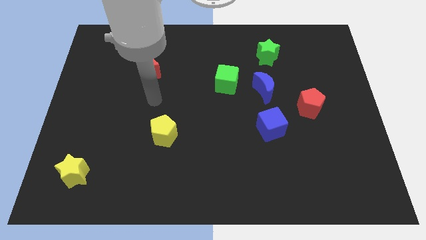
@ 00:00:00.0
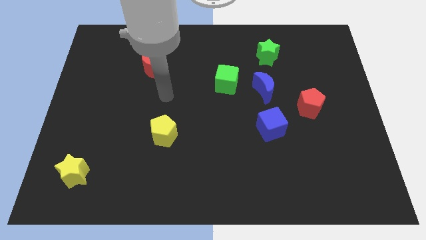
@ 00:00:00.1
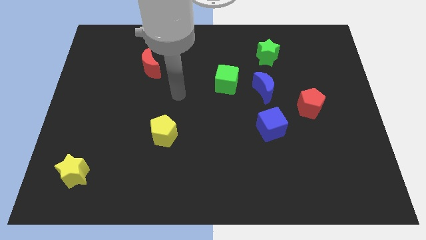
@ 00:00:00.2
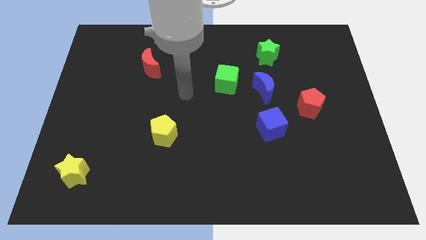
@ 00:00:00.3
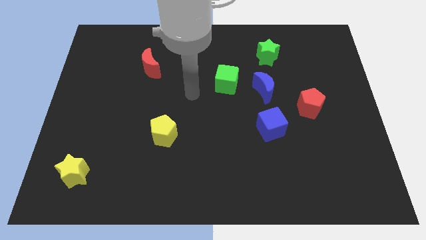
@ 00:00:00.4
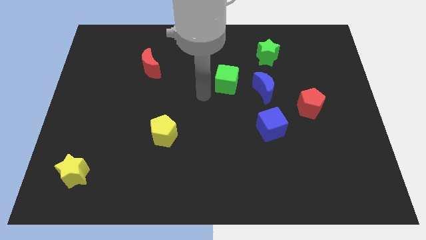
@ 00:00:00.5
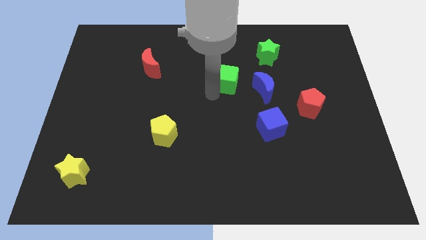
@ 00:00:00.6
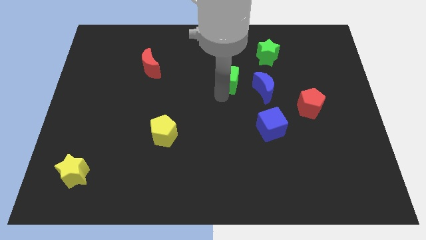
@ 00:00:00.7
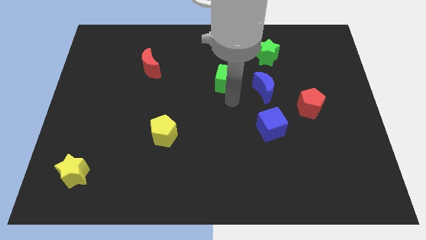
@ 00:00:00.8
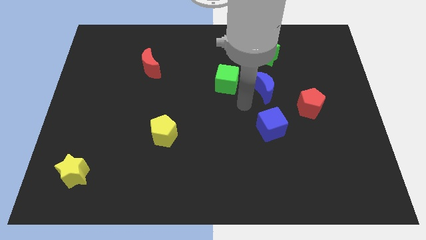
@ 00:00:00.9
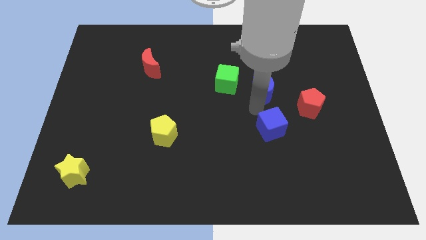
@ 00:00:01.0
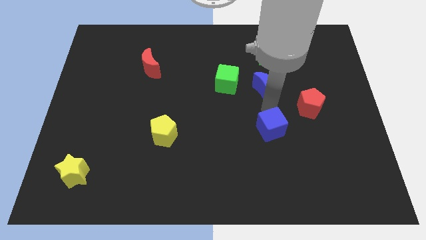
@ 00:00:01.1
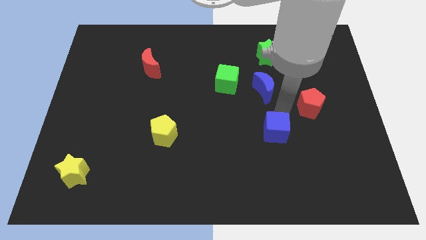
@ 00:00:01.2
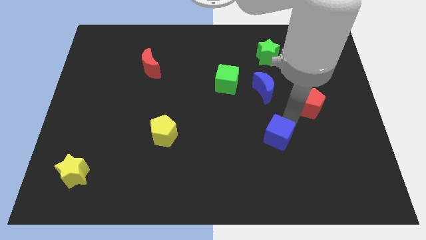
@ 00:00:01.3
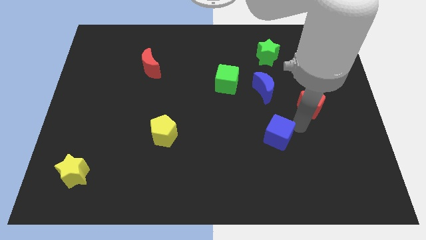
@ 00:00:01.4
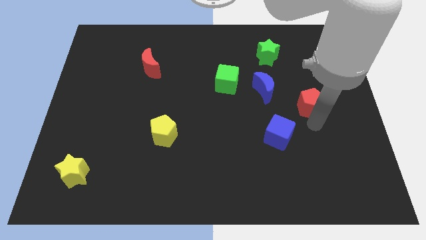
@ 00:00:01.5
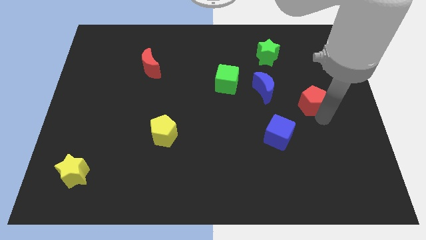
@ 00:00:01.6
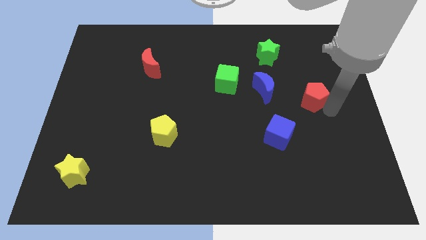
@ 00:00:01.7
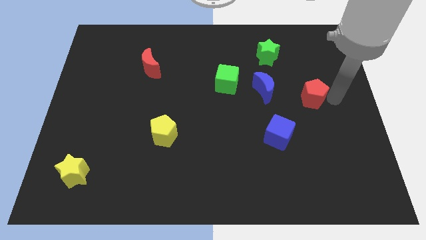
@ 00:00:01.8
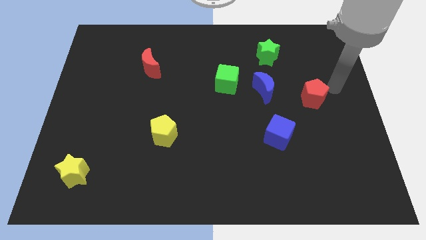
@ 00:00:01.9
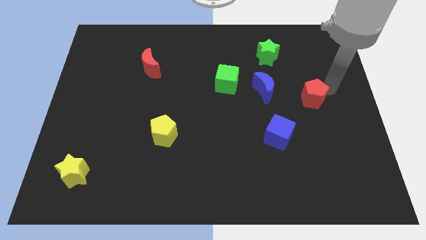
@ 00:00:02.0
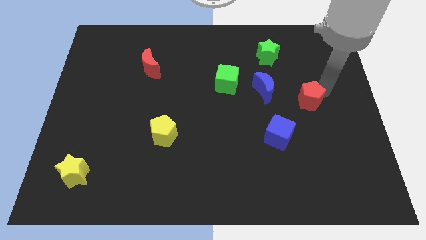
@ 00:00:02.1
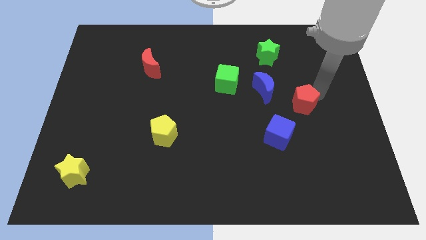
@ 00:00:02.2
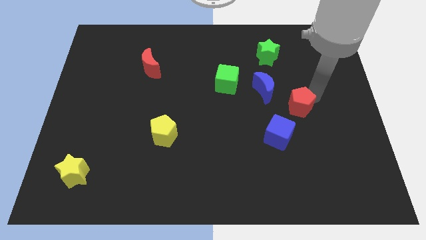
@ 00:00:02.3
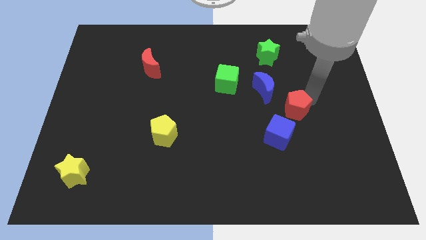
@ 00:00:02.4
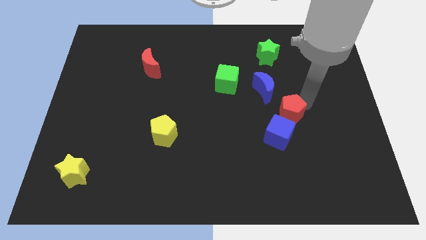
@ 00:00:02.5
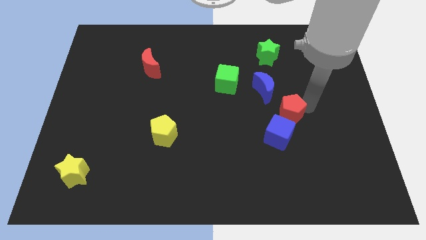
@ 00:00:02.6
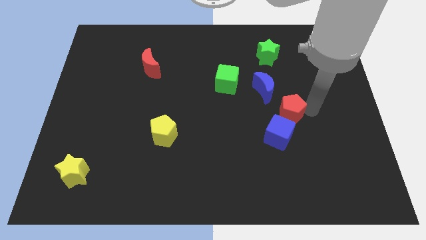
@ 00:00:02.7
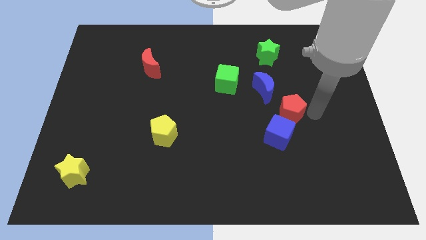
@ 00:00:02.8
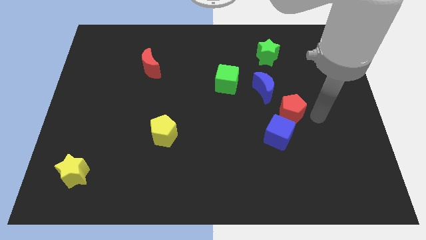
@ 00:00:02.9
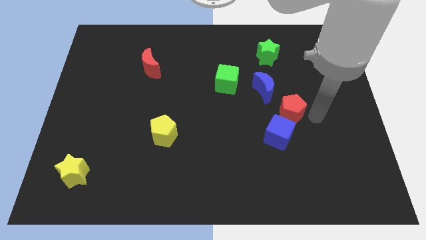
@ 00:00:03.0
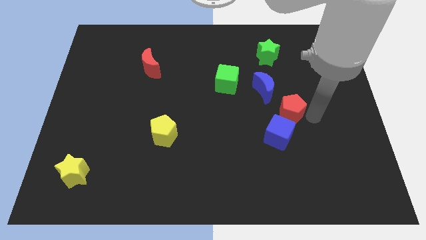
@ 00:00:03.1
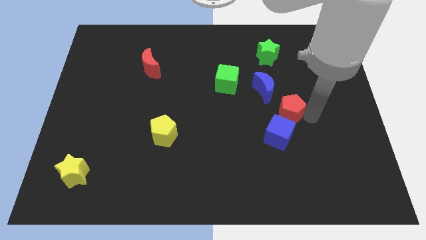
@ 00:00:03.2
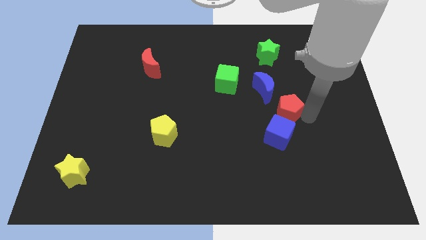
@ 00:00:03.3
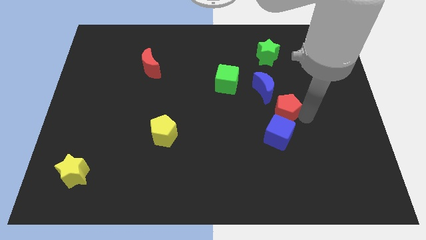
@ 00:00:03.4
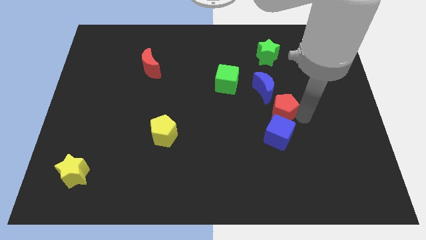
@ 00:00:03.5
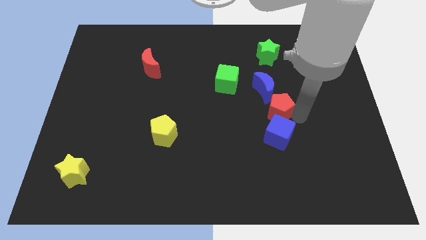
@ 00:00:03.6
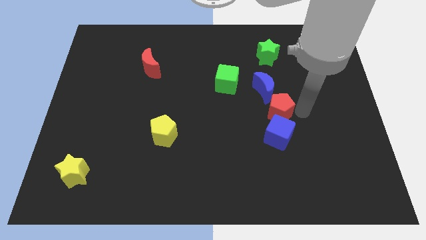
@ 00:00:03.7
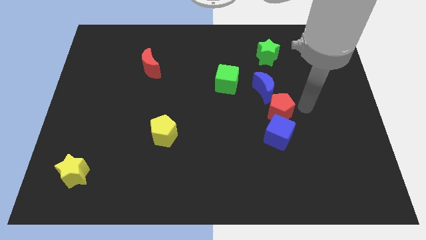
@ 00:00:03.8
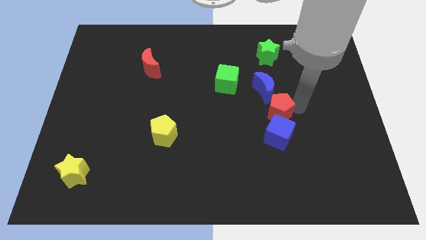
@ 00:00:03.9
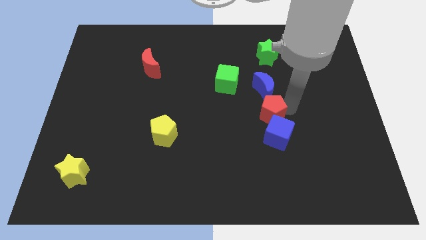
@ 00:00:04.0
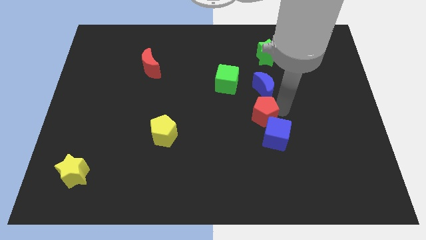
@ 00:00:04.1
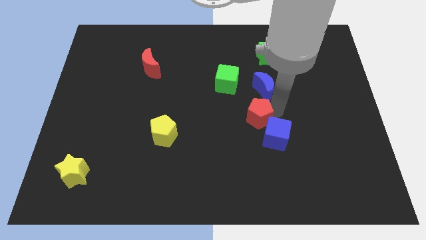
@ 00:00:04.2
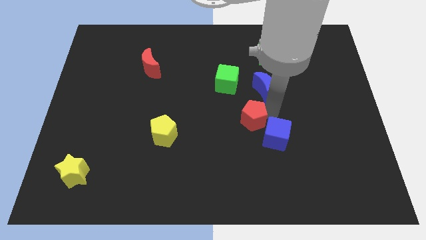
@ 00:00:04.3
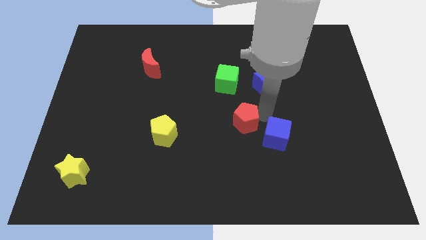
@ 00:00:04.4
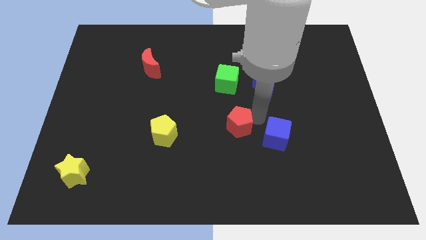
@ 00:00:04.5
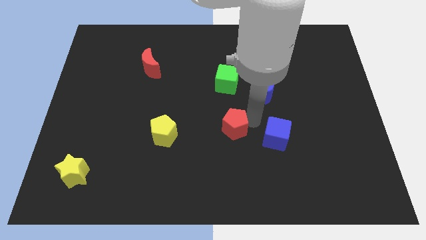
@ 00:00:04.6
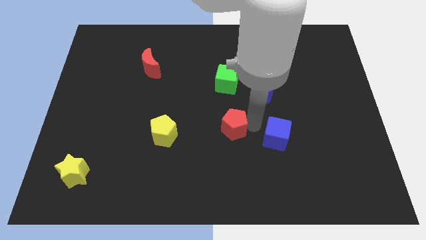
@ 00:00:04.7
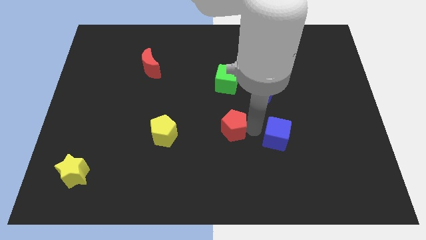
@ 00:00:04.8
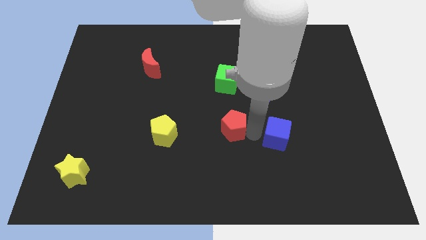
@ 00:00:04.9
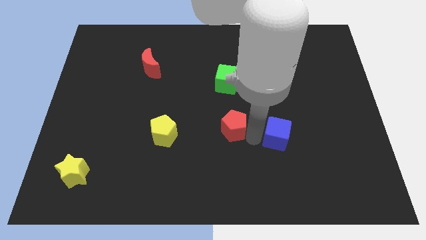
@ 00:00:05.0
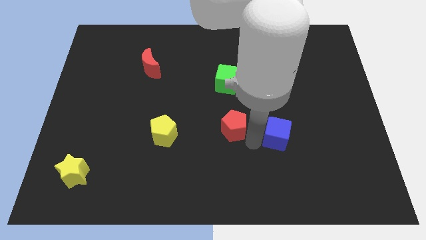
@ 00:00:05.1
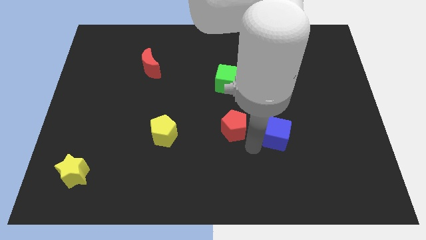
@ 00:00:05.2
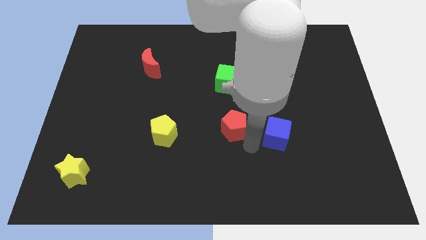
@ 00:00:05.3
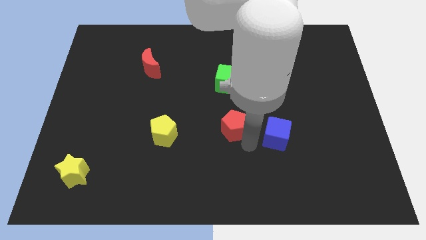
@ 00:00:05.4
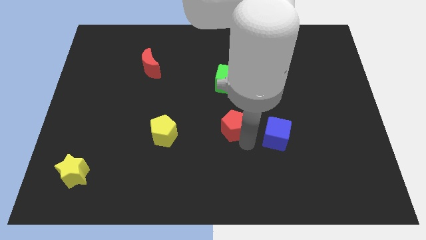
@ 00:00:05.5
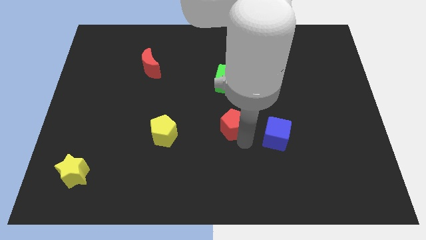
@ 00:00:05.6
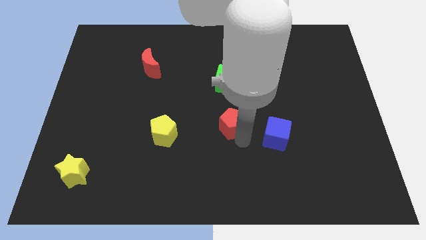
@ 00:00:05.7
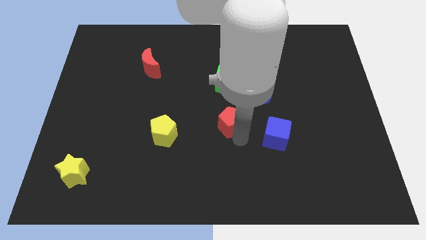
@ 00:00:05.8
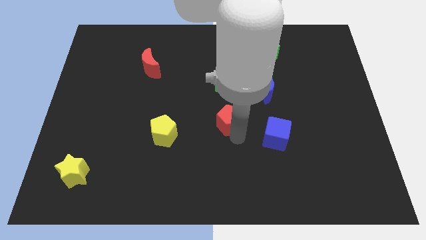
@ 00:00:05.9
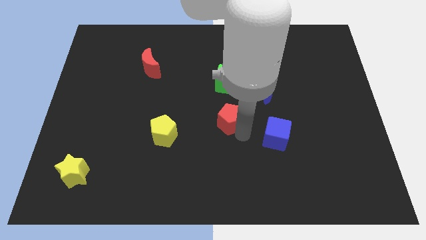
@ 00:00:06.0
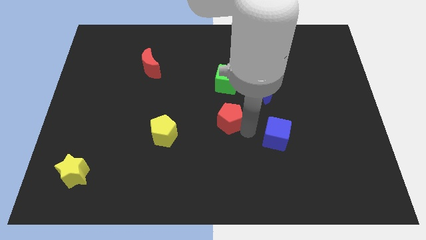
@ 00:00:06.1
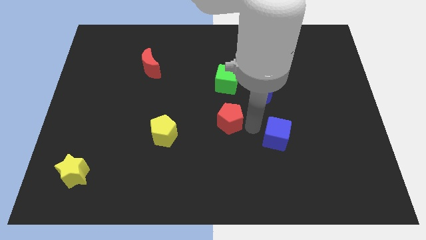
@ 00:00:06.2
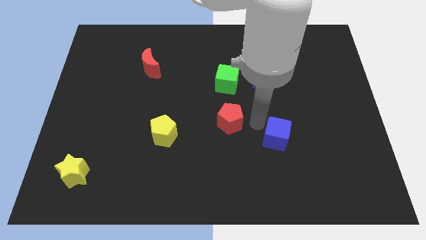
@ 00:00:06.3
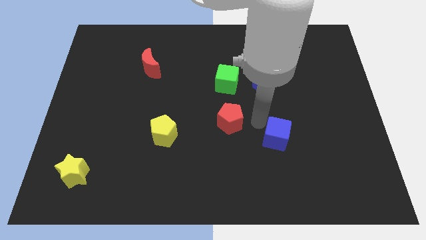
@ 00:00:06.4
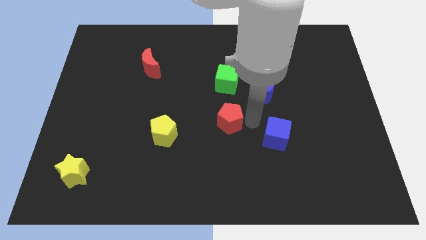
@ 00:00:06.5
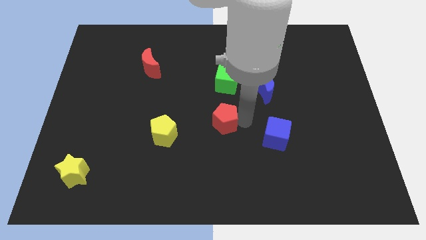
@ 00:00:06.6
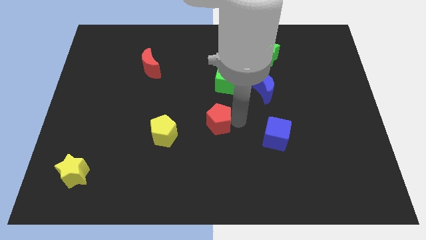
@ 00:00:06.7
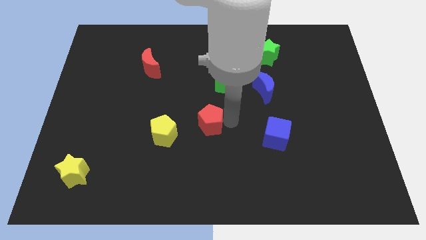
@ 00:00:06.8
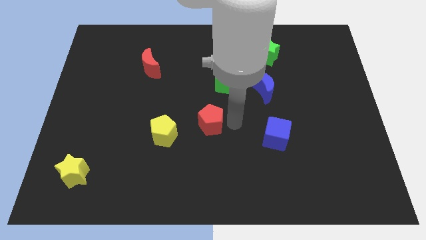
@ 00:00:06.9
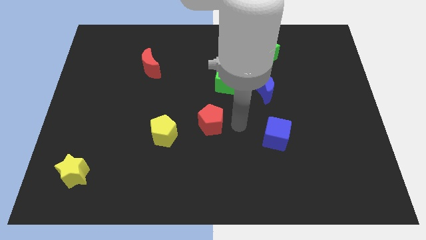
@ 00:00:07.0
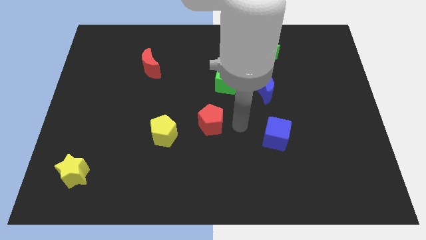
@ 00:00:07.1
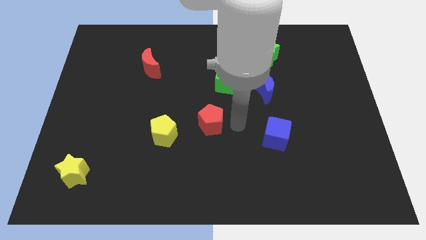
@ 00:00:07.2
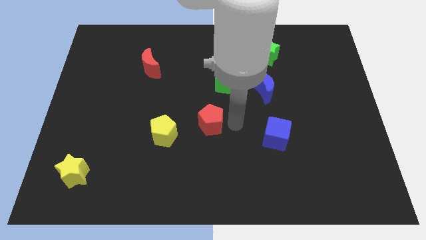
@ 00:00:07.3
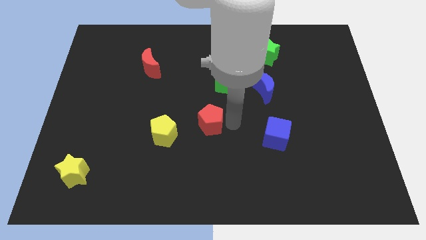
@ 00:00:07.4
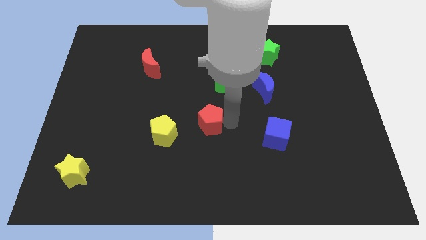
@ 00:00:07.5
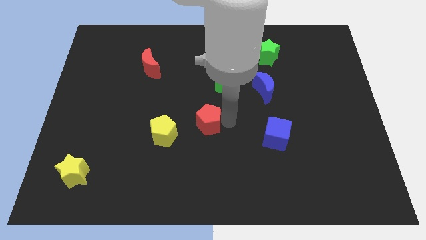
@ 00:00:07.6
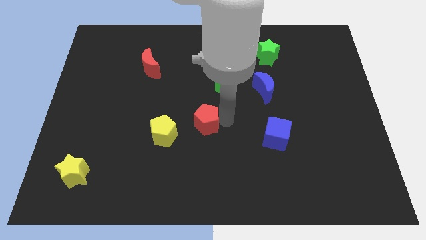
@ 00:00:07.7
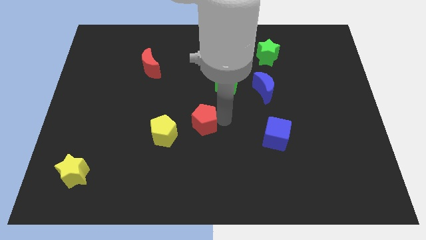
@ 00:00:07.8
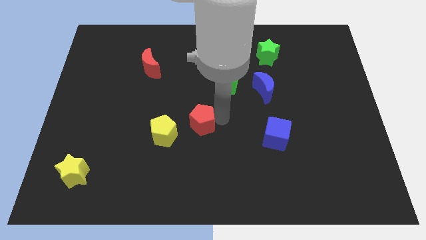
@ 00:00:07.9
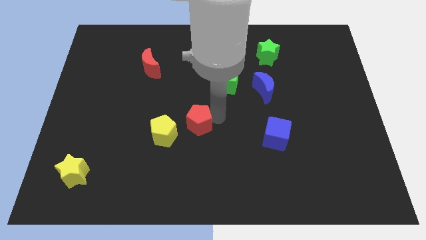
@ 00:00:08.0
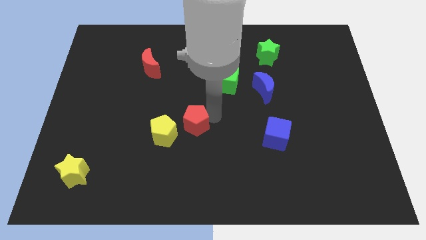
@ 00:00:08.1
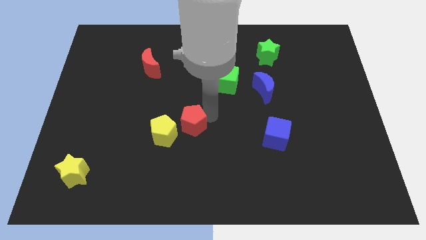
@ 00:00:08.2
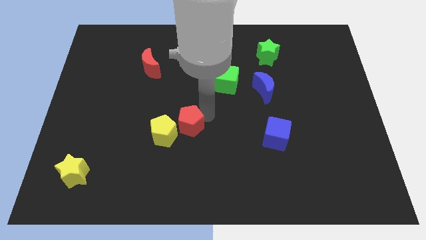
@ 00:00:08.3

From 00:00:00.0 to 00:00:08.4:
slide the red pentagon to the yellow pentagon
